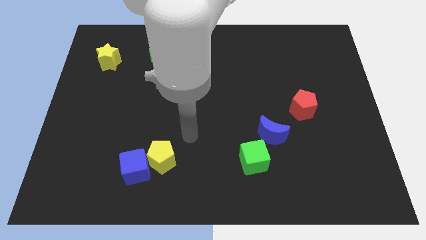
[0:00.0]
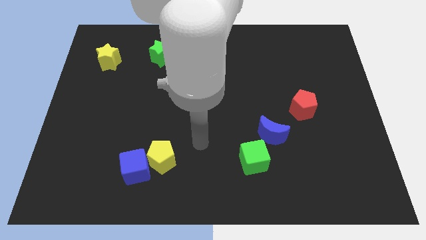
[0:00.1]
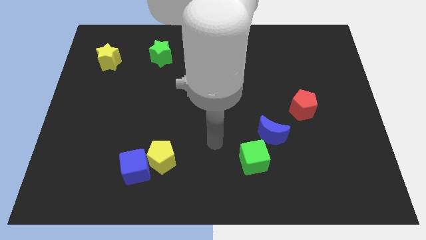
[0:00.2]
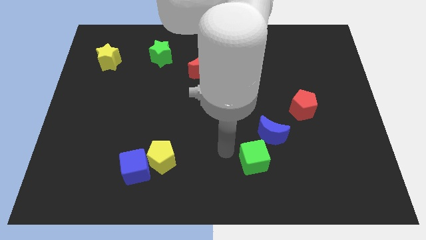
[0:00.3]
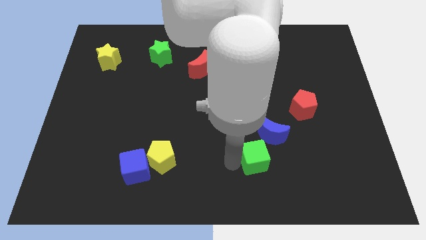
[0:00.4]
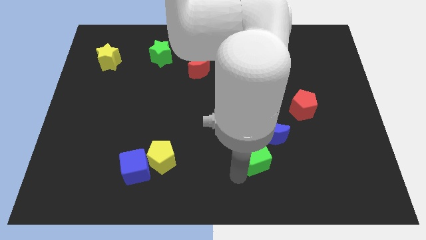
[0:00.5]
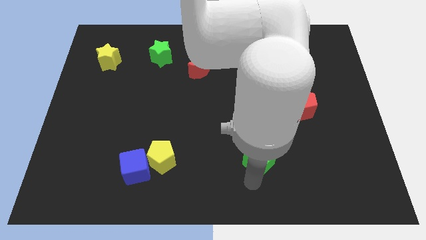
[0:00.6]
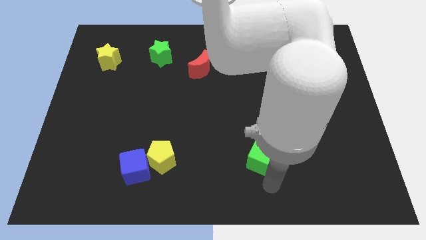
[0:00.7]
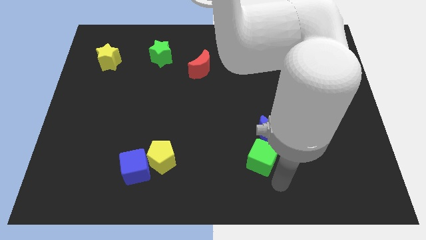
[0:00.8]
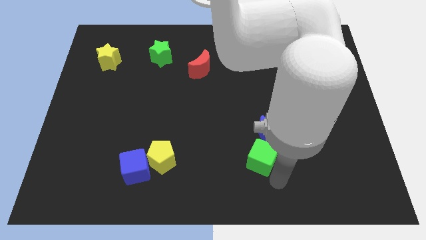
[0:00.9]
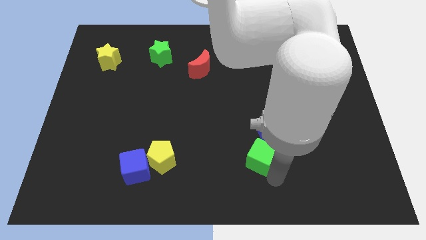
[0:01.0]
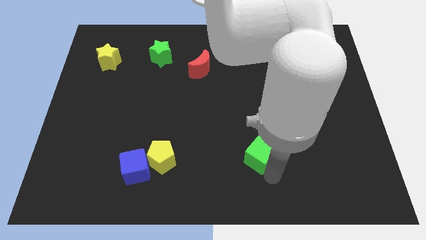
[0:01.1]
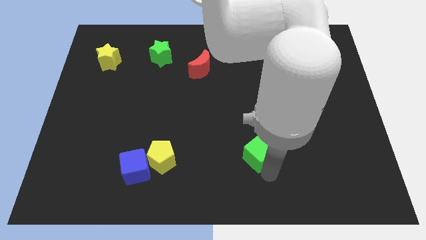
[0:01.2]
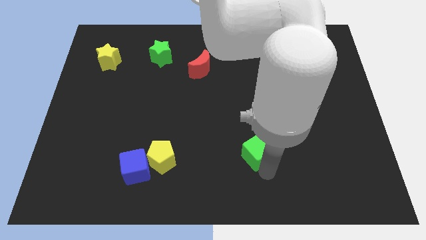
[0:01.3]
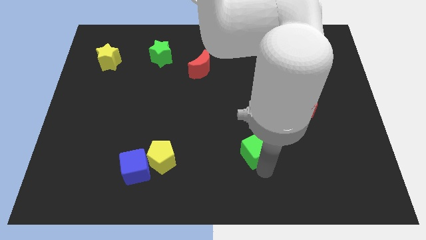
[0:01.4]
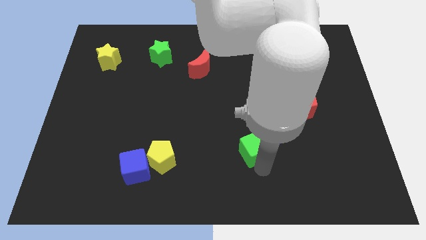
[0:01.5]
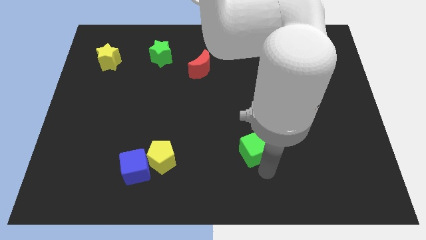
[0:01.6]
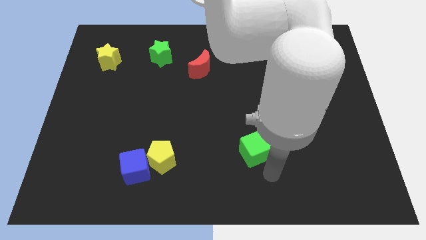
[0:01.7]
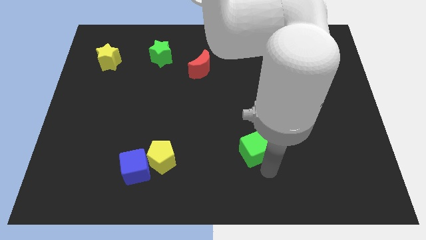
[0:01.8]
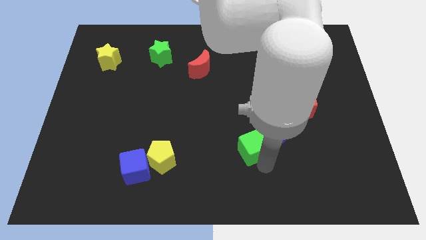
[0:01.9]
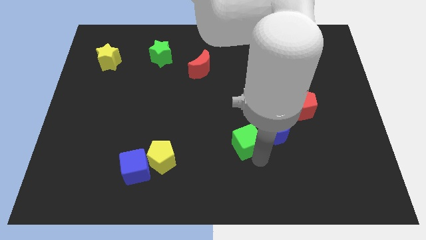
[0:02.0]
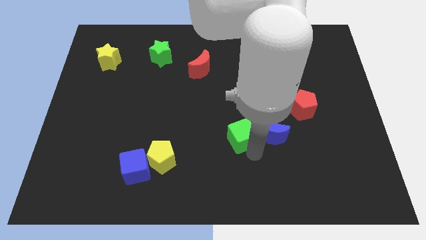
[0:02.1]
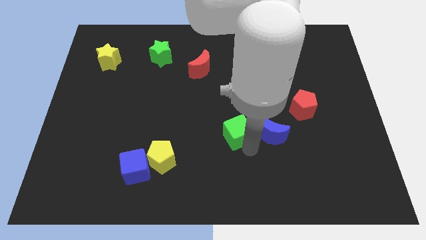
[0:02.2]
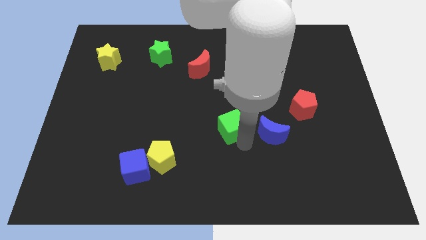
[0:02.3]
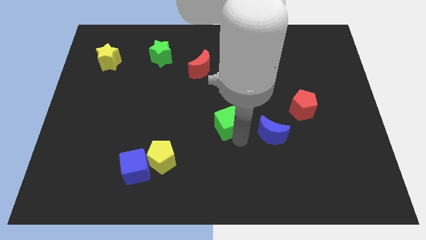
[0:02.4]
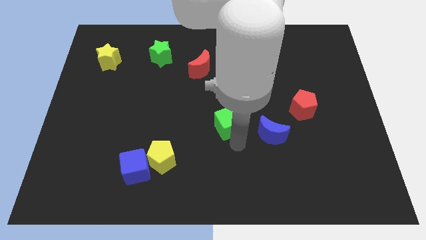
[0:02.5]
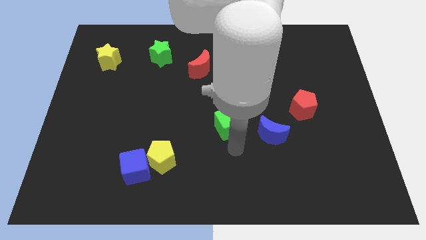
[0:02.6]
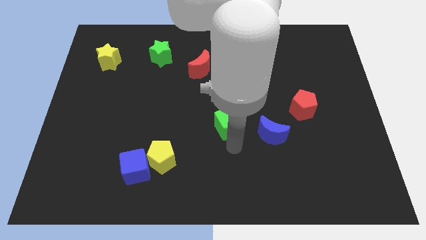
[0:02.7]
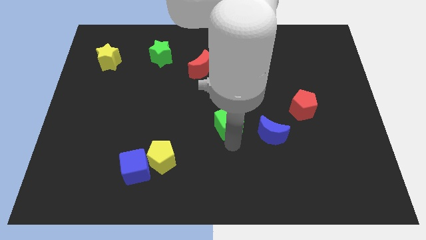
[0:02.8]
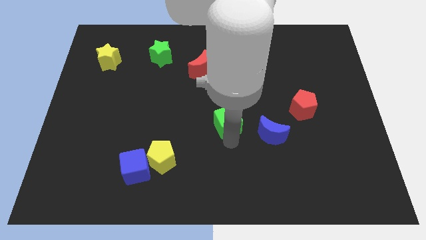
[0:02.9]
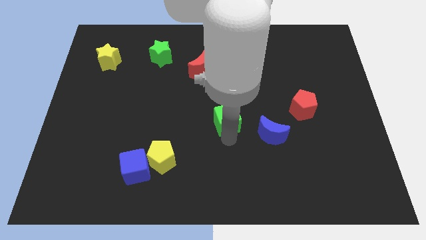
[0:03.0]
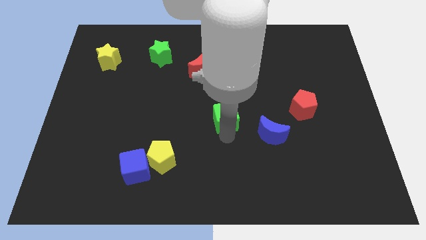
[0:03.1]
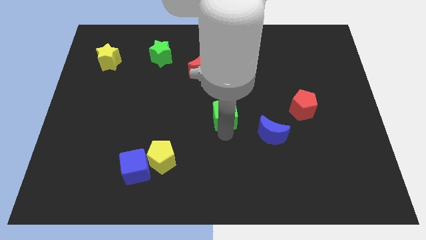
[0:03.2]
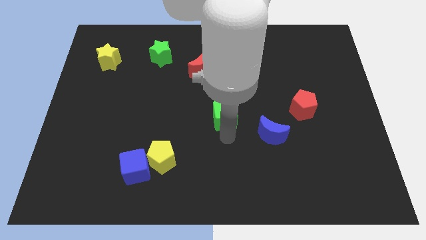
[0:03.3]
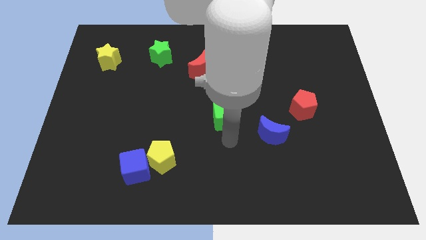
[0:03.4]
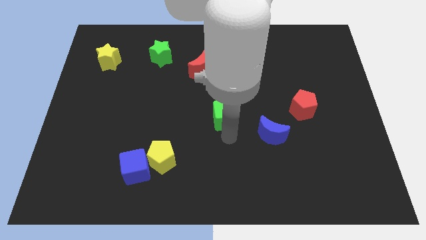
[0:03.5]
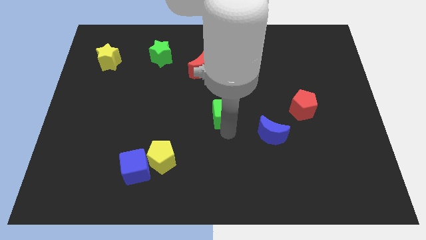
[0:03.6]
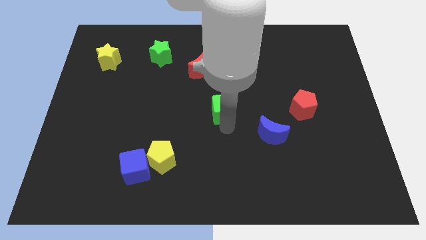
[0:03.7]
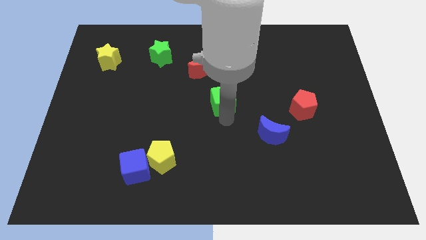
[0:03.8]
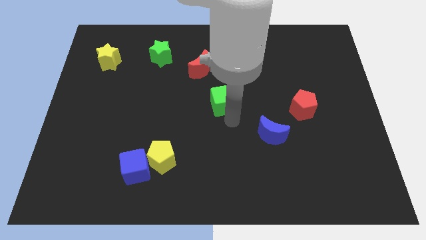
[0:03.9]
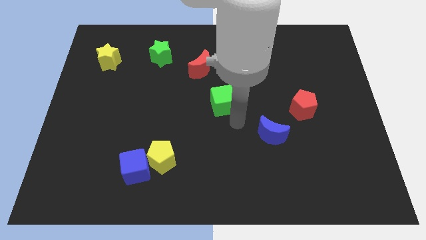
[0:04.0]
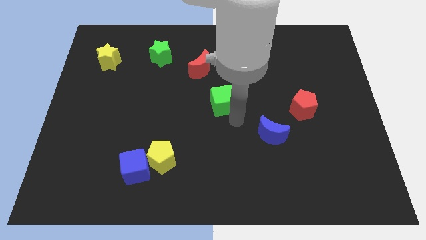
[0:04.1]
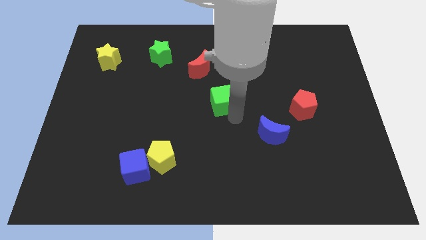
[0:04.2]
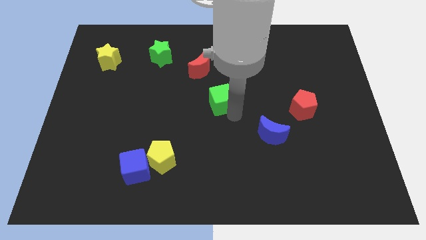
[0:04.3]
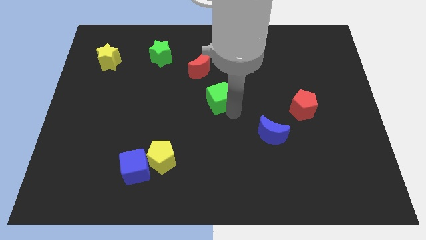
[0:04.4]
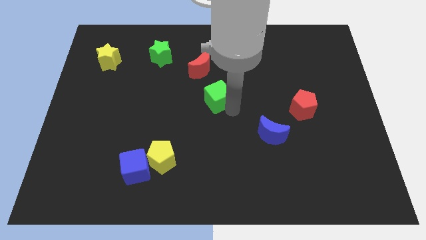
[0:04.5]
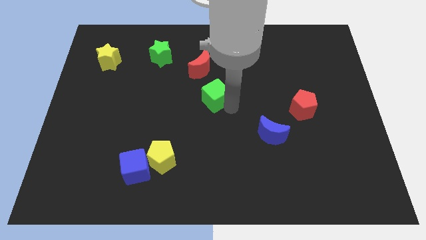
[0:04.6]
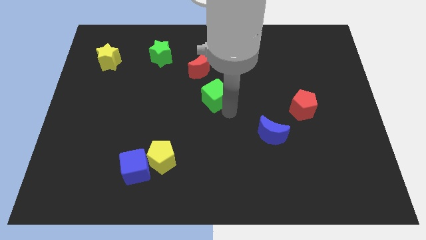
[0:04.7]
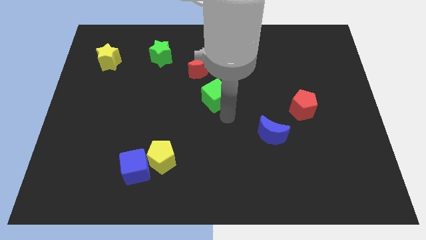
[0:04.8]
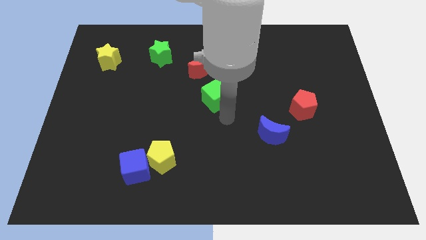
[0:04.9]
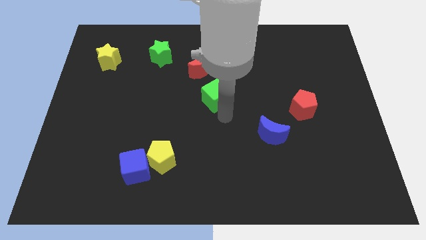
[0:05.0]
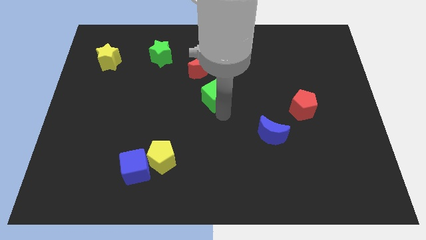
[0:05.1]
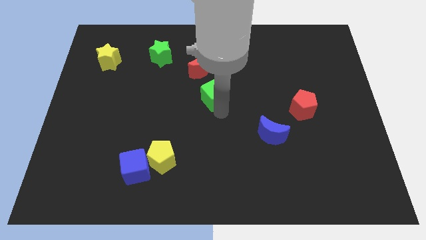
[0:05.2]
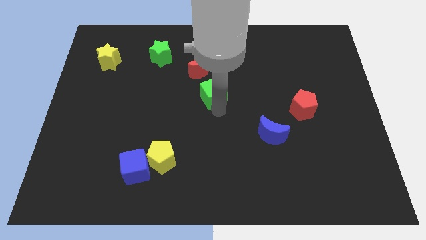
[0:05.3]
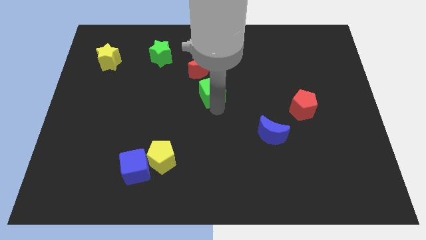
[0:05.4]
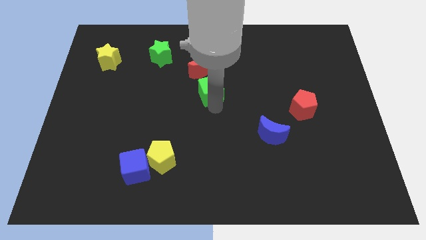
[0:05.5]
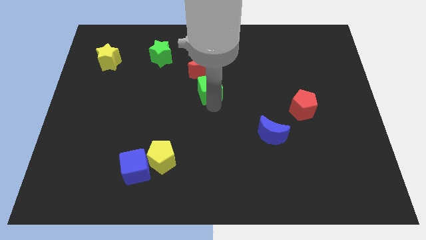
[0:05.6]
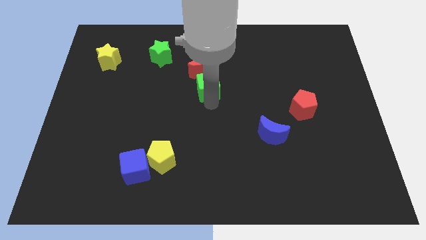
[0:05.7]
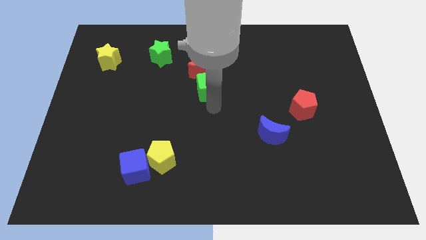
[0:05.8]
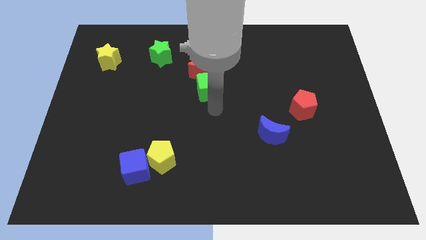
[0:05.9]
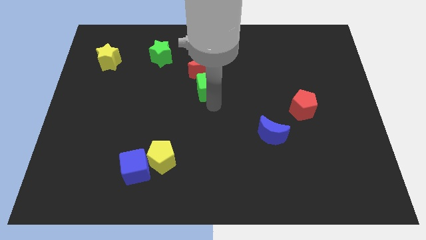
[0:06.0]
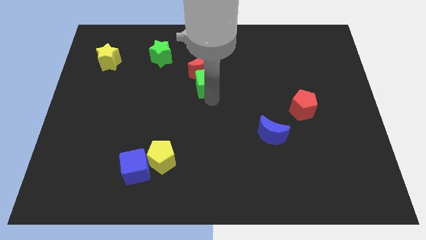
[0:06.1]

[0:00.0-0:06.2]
push the green cube close to the red moon

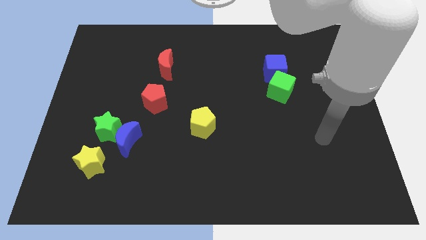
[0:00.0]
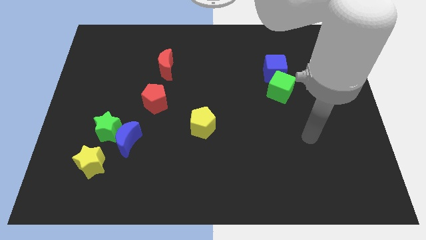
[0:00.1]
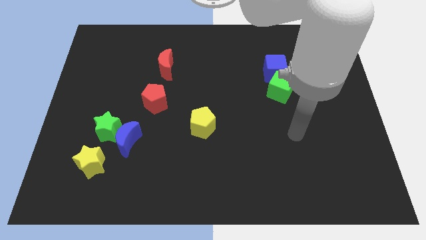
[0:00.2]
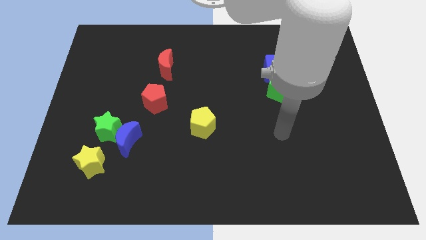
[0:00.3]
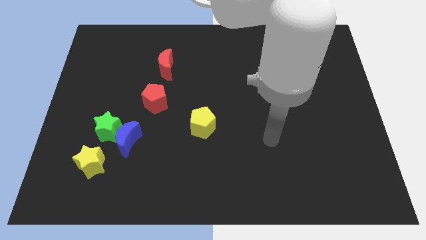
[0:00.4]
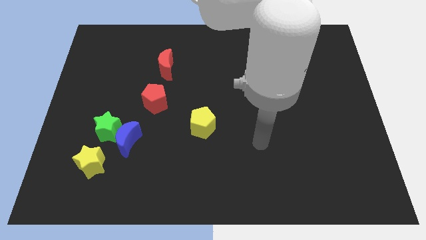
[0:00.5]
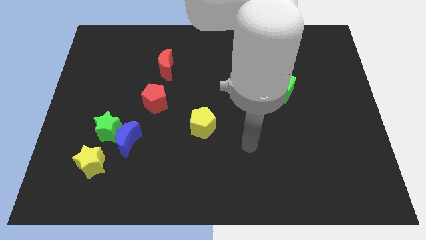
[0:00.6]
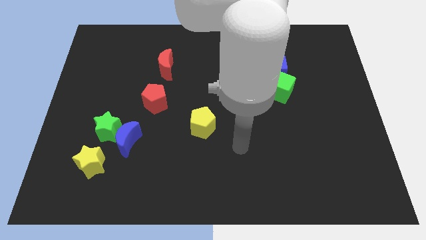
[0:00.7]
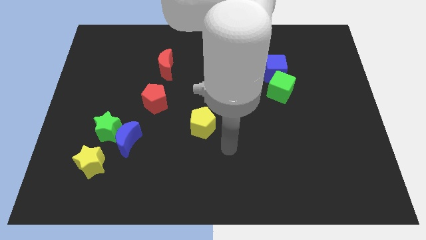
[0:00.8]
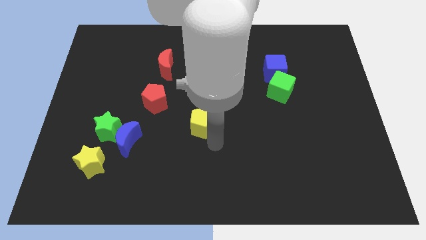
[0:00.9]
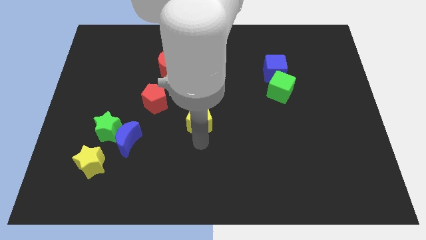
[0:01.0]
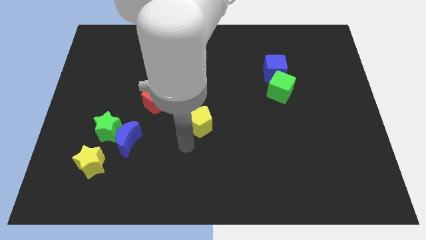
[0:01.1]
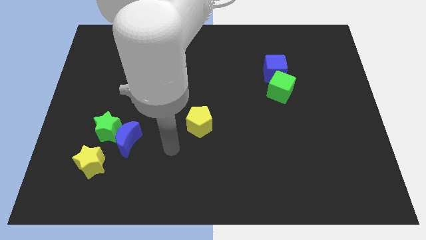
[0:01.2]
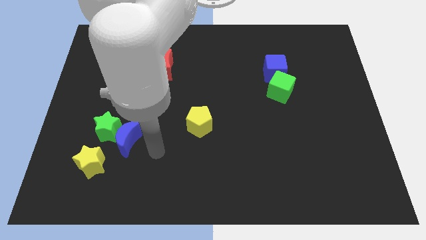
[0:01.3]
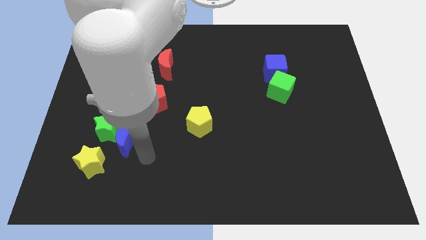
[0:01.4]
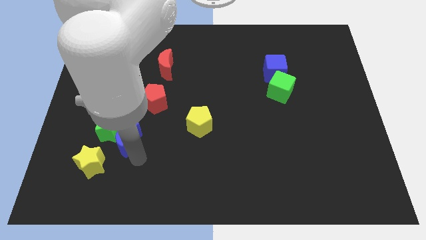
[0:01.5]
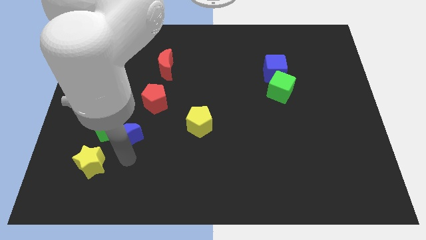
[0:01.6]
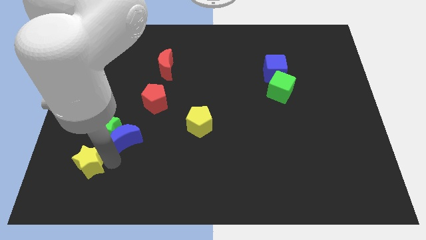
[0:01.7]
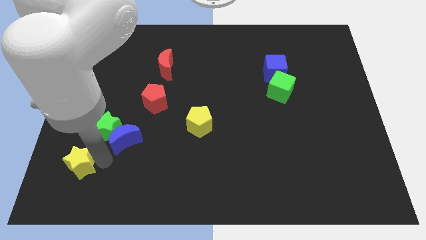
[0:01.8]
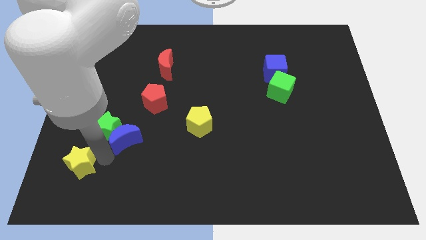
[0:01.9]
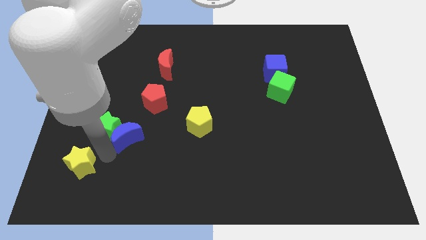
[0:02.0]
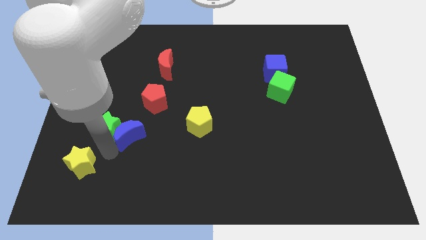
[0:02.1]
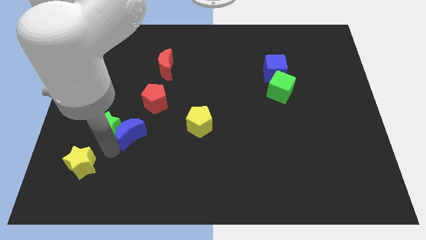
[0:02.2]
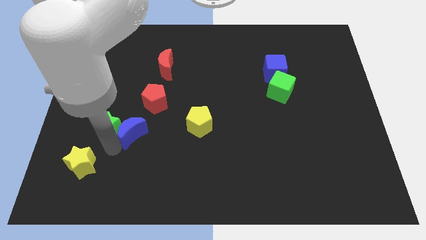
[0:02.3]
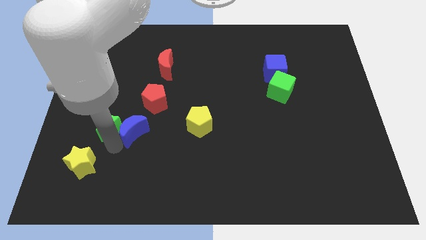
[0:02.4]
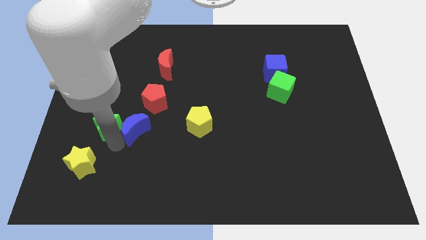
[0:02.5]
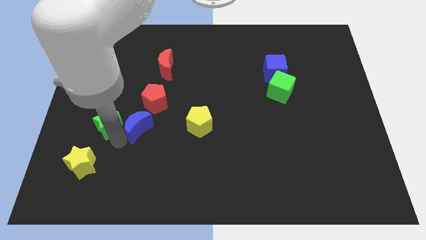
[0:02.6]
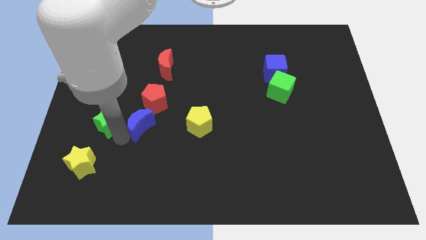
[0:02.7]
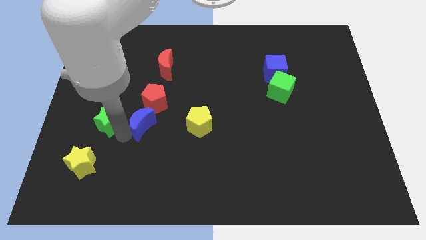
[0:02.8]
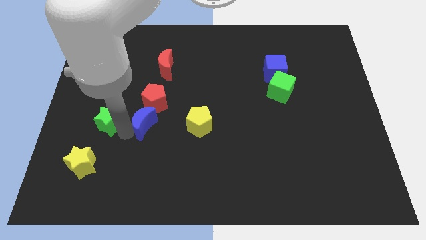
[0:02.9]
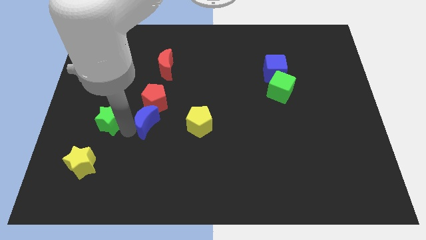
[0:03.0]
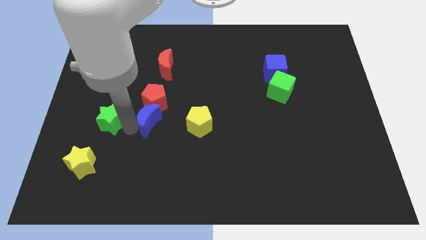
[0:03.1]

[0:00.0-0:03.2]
slide the blue moon next to the red pentagon
